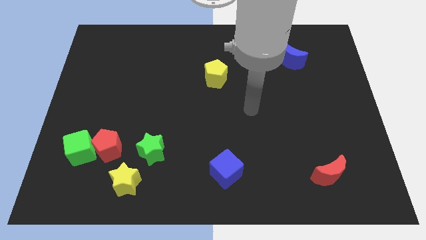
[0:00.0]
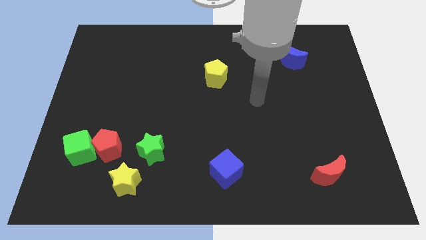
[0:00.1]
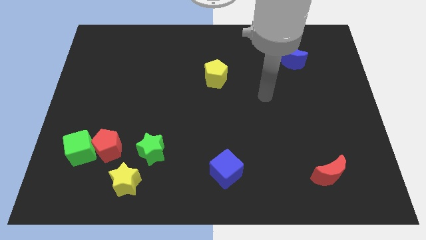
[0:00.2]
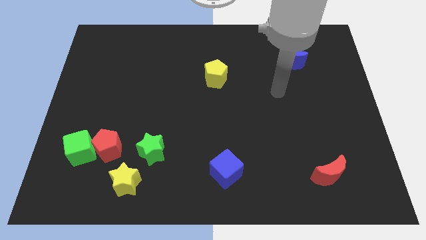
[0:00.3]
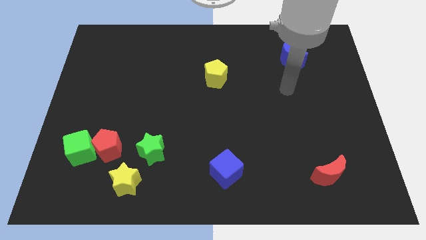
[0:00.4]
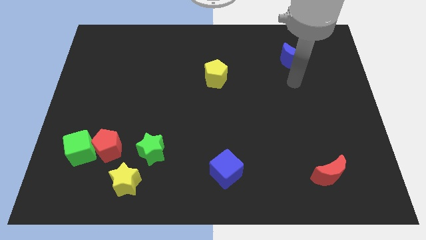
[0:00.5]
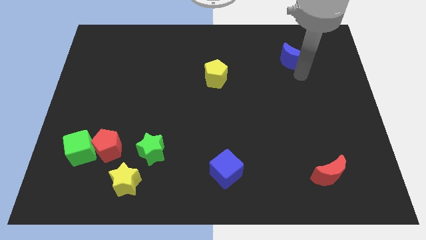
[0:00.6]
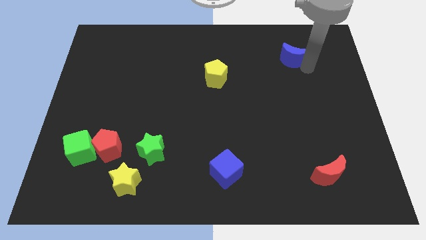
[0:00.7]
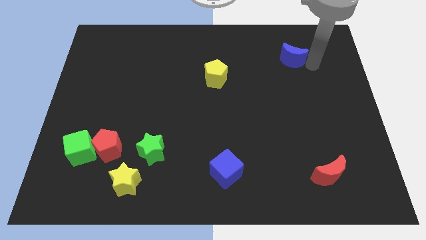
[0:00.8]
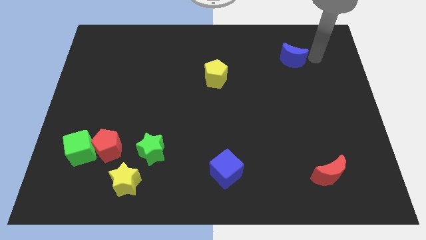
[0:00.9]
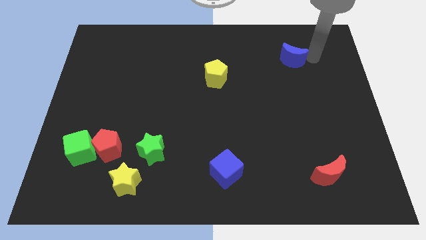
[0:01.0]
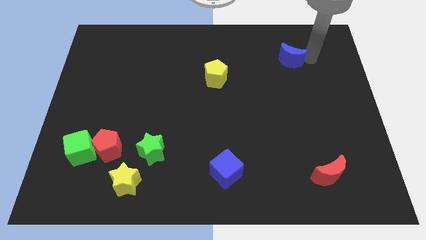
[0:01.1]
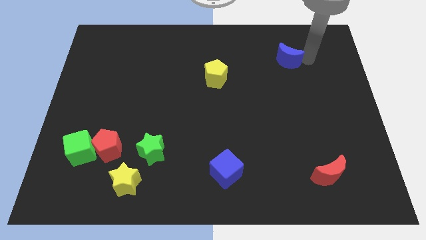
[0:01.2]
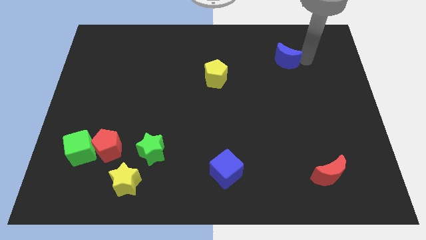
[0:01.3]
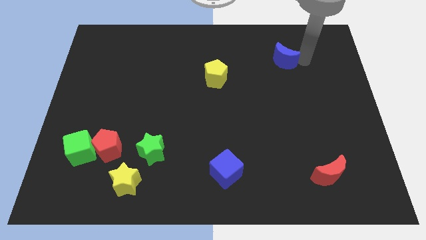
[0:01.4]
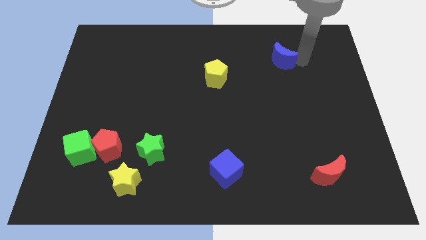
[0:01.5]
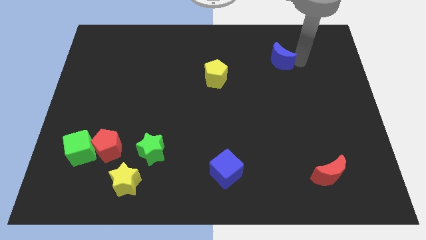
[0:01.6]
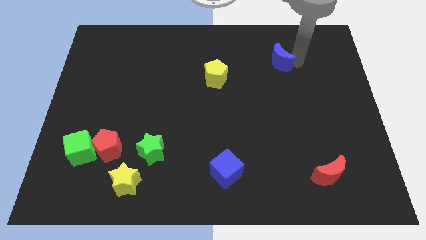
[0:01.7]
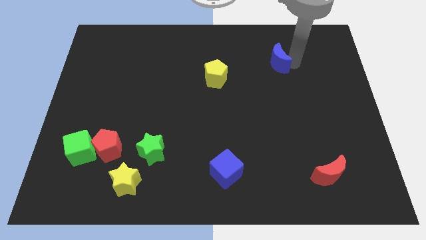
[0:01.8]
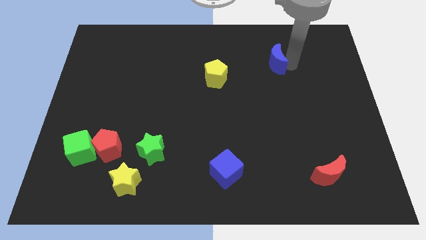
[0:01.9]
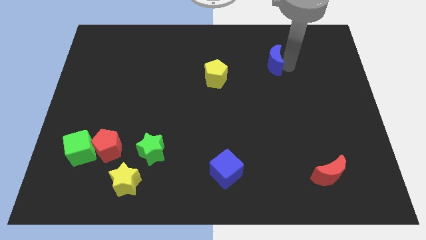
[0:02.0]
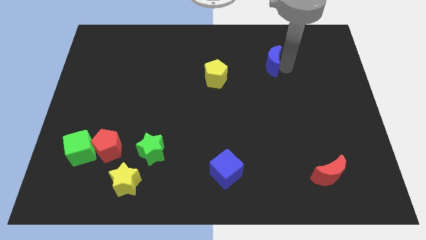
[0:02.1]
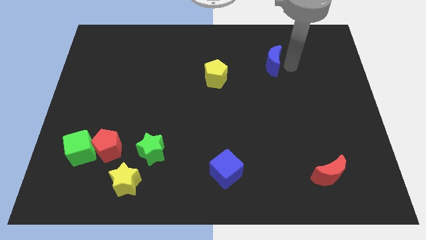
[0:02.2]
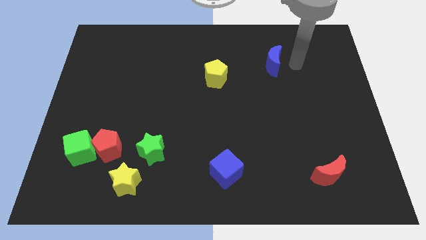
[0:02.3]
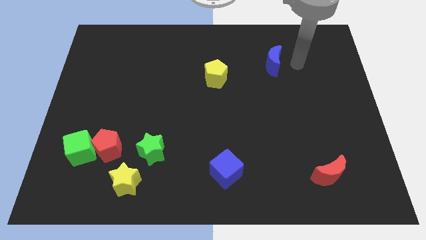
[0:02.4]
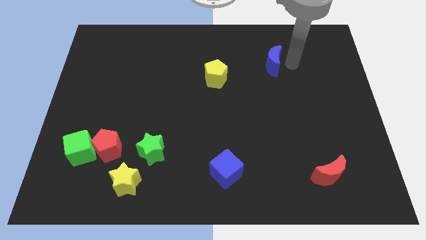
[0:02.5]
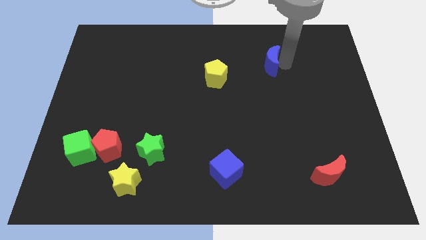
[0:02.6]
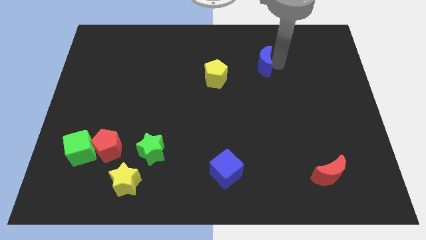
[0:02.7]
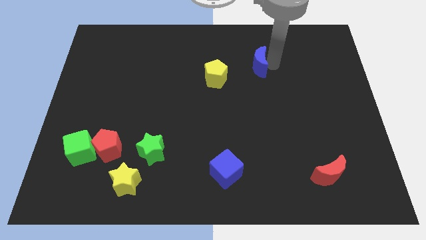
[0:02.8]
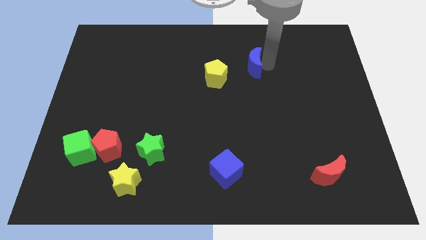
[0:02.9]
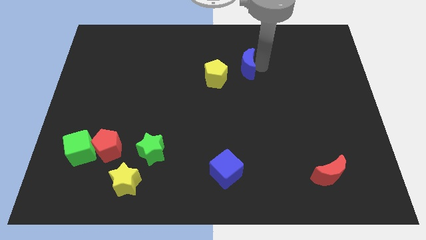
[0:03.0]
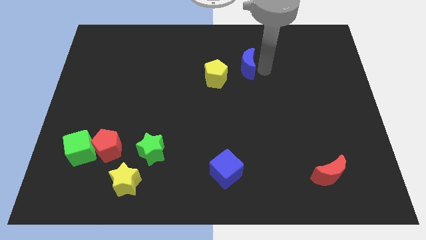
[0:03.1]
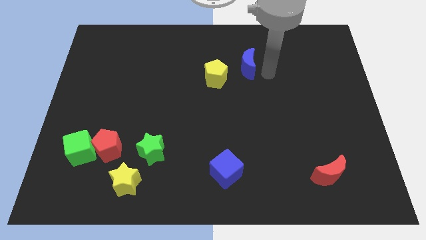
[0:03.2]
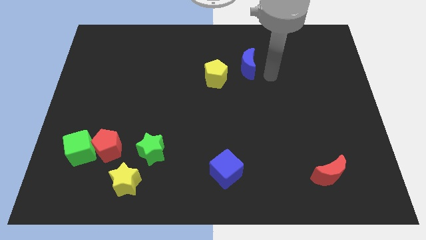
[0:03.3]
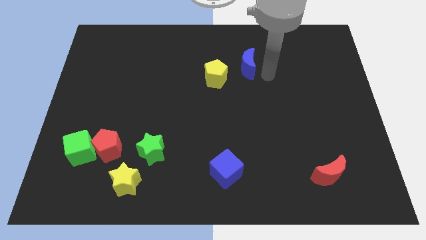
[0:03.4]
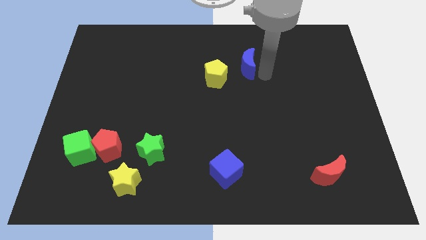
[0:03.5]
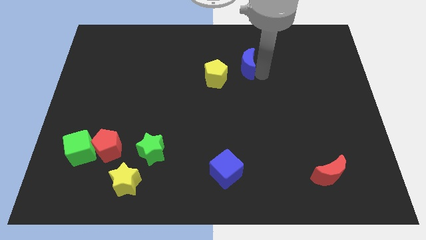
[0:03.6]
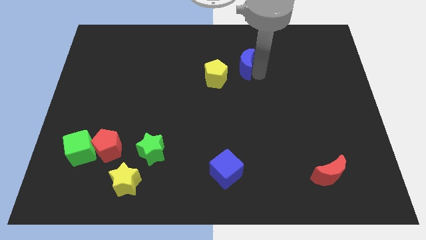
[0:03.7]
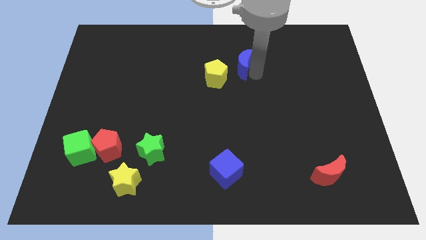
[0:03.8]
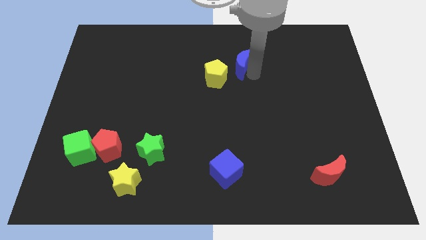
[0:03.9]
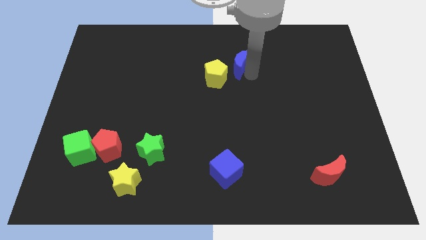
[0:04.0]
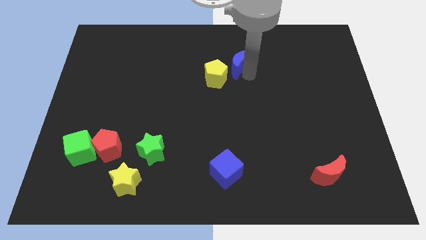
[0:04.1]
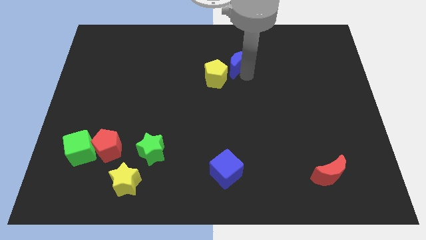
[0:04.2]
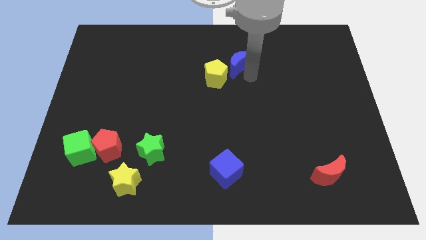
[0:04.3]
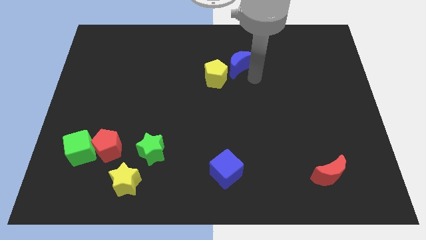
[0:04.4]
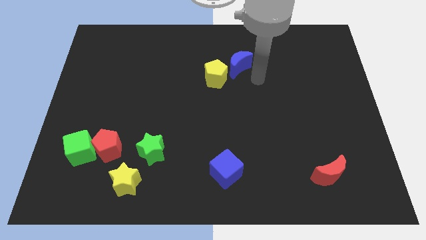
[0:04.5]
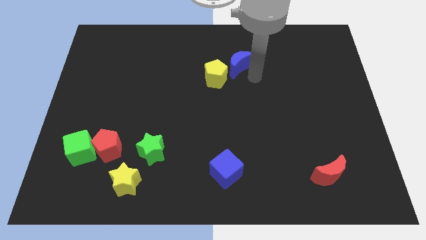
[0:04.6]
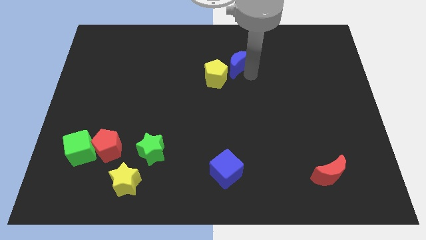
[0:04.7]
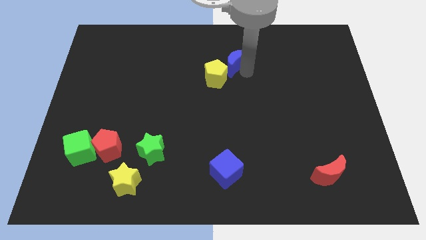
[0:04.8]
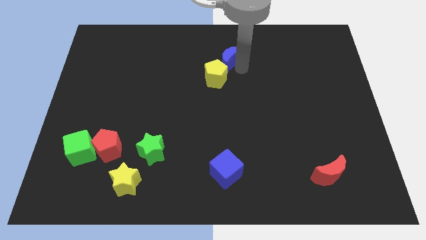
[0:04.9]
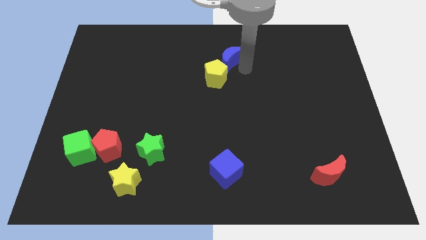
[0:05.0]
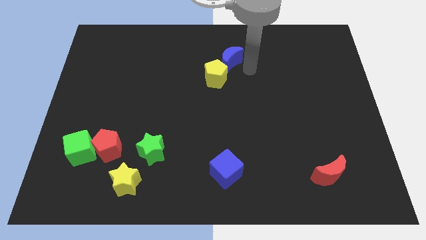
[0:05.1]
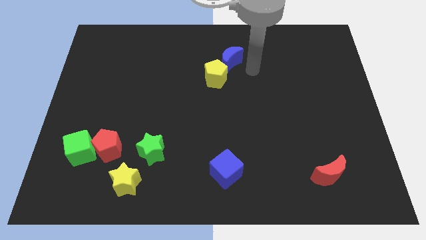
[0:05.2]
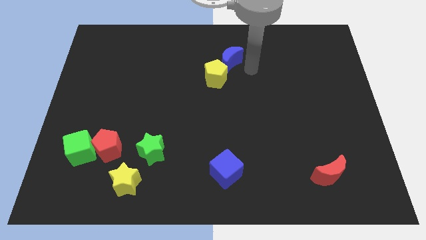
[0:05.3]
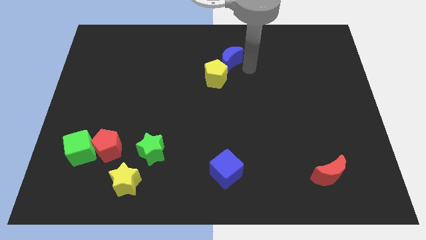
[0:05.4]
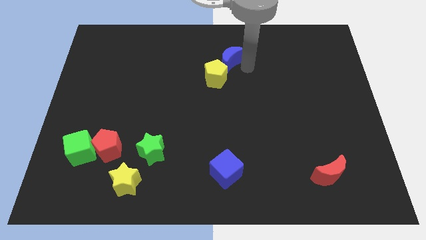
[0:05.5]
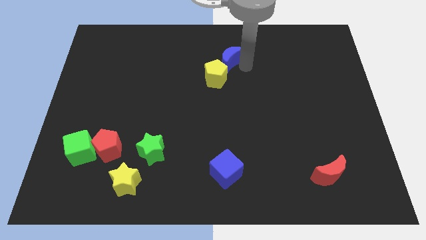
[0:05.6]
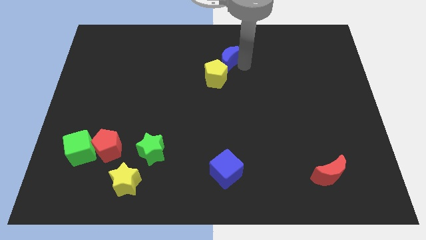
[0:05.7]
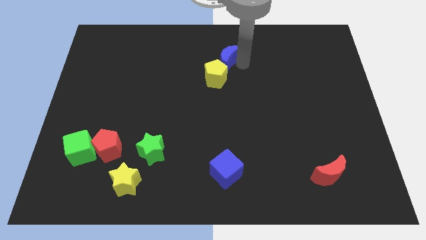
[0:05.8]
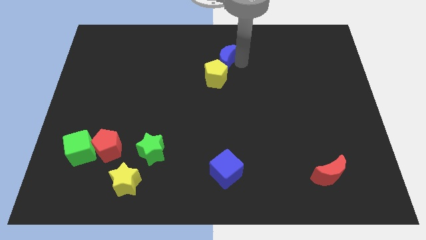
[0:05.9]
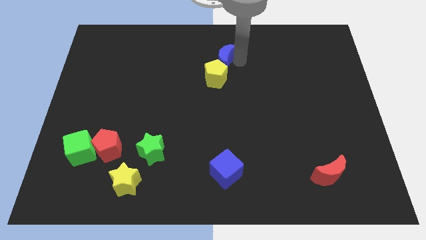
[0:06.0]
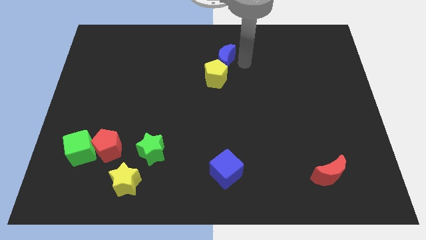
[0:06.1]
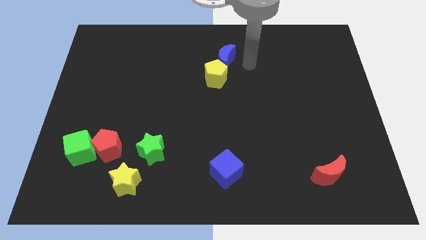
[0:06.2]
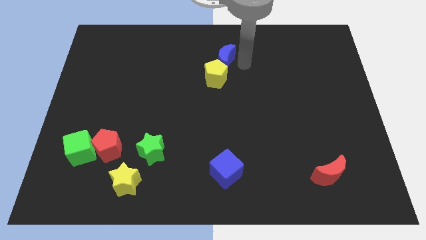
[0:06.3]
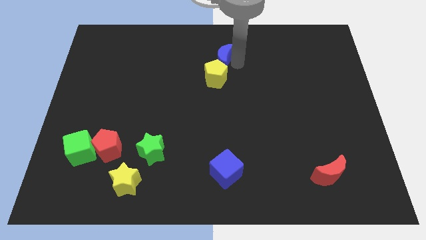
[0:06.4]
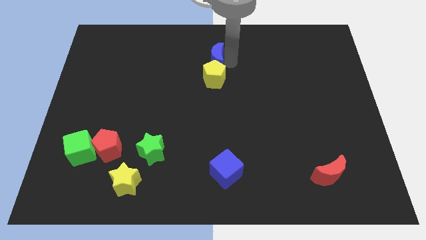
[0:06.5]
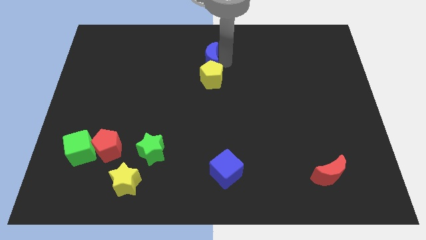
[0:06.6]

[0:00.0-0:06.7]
push the blue moon left

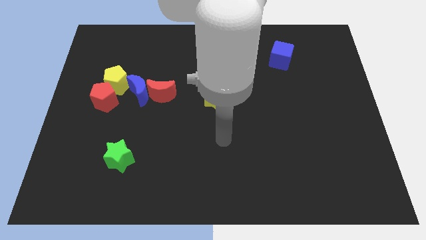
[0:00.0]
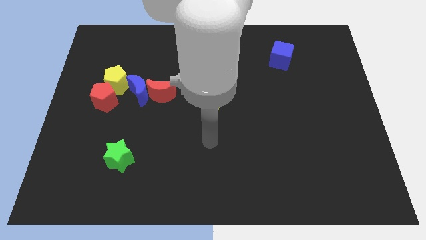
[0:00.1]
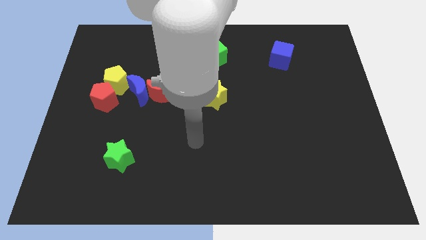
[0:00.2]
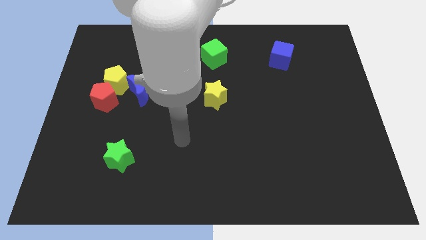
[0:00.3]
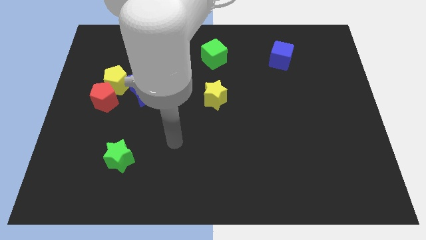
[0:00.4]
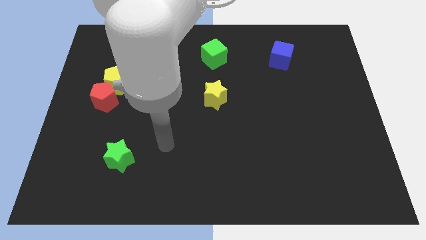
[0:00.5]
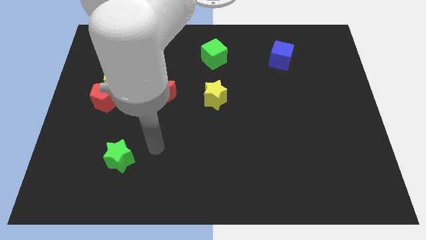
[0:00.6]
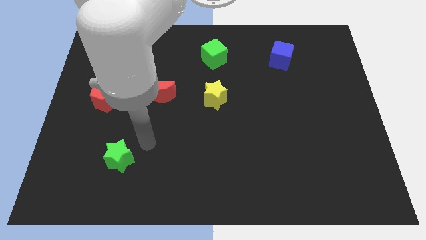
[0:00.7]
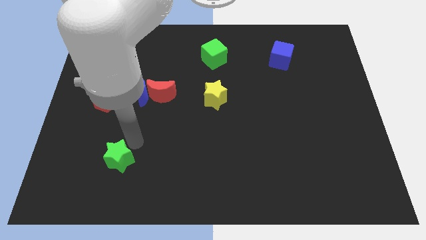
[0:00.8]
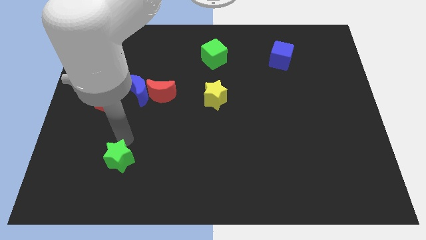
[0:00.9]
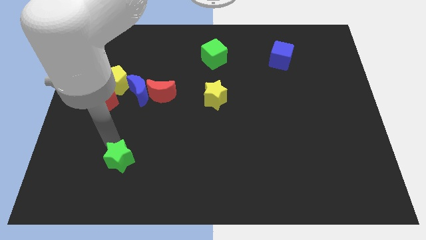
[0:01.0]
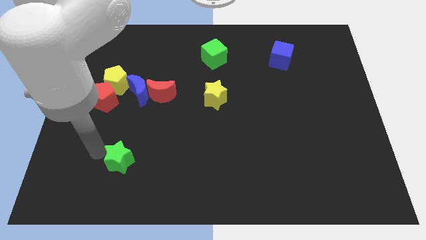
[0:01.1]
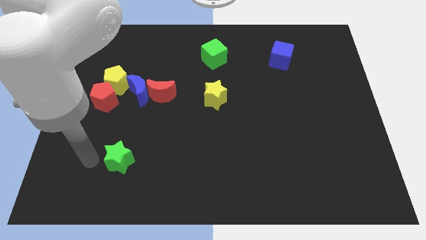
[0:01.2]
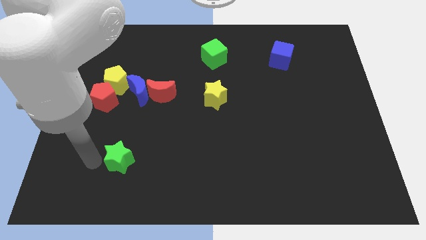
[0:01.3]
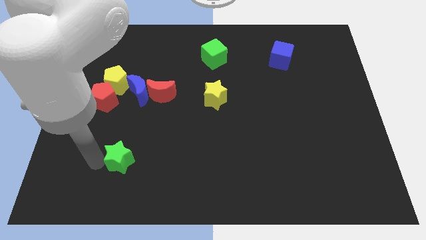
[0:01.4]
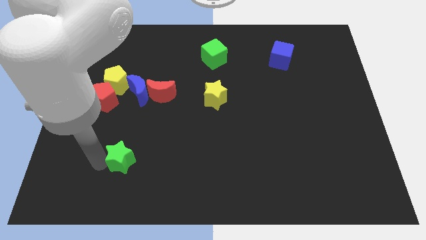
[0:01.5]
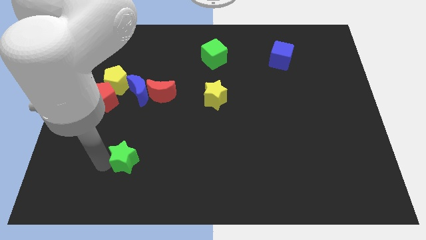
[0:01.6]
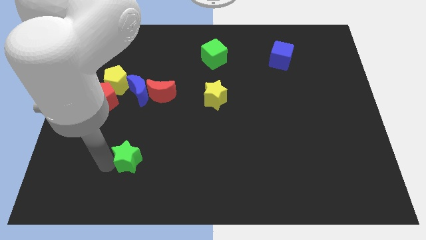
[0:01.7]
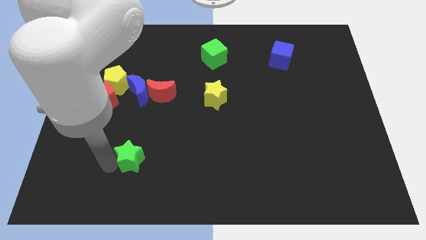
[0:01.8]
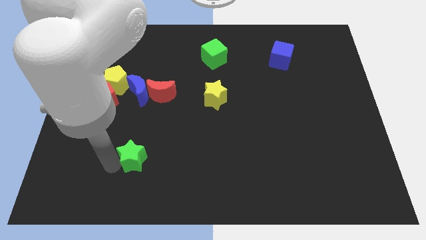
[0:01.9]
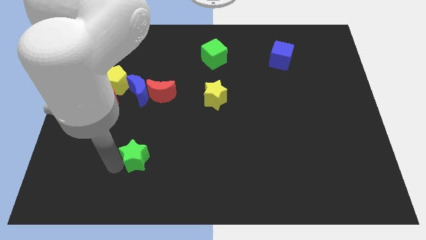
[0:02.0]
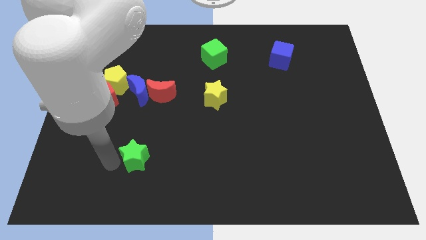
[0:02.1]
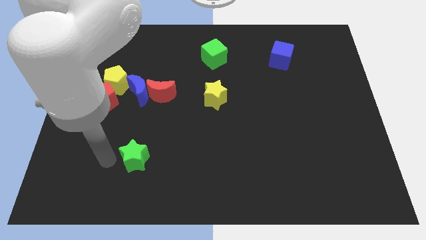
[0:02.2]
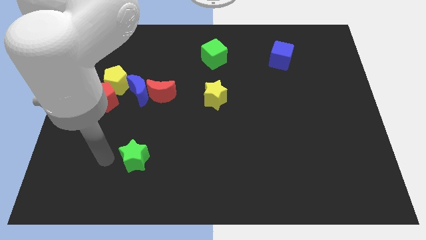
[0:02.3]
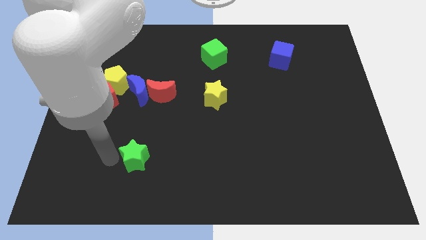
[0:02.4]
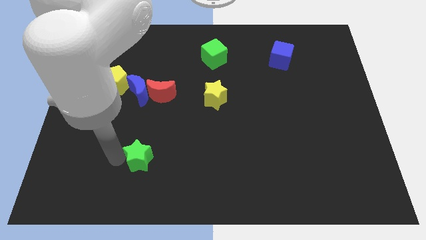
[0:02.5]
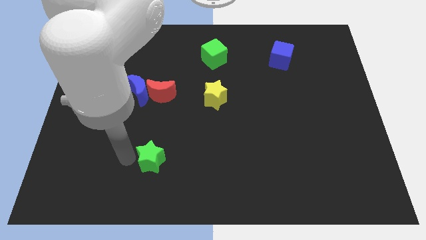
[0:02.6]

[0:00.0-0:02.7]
push the green star slightly to the right
